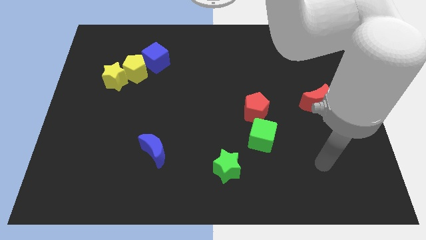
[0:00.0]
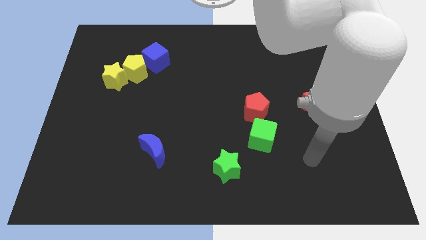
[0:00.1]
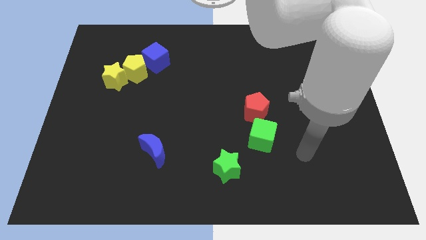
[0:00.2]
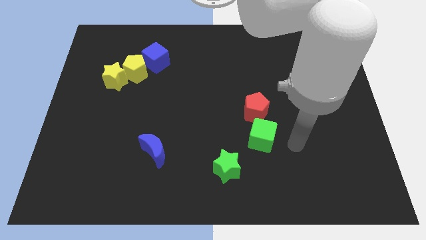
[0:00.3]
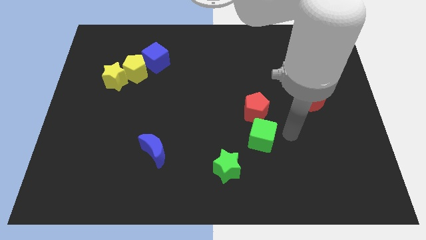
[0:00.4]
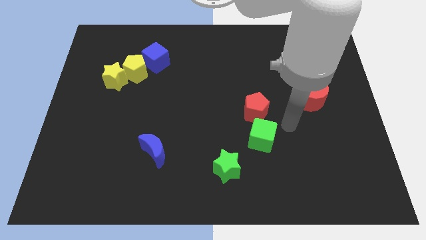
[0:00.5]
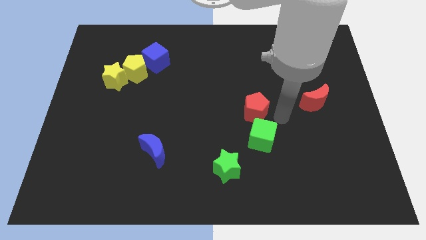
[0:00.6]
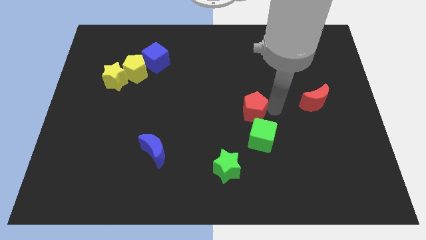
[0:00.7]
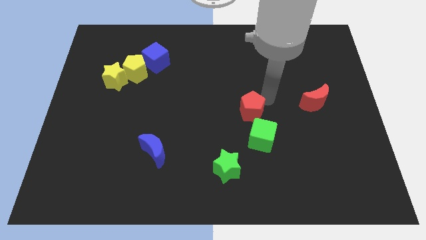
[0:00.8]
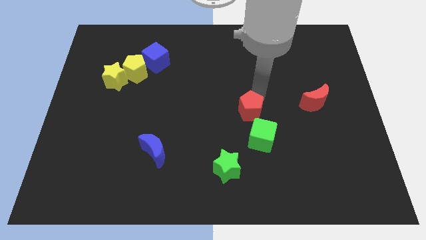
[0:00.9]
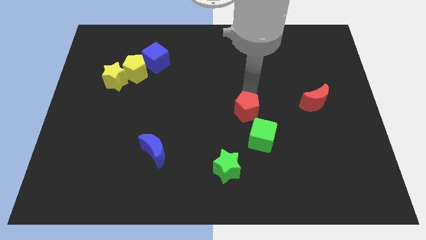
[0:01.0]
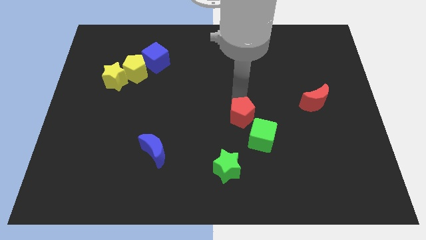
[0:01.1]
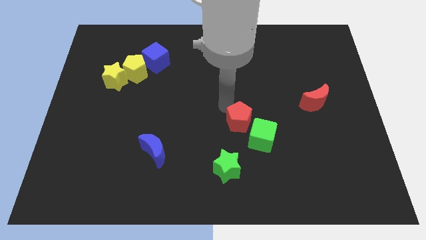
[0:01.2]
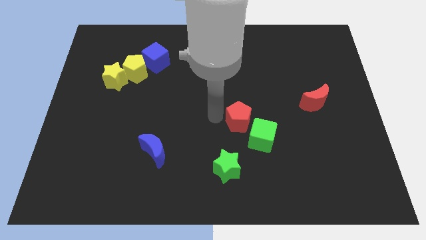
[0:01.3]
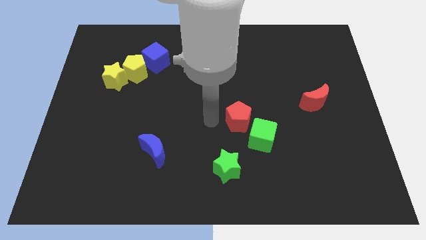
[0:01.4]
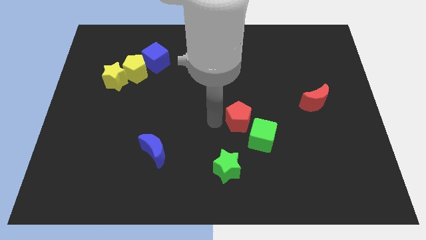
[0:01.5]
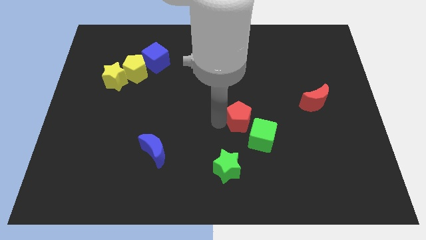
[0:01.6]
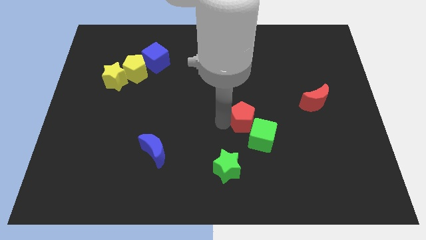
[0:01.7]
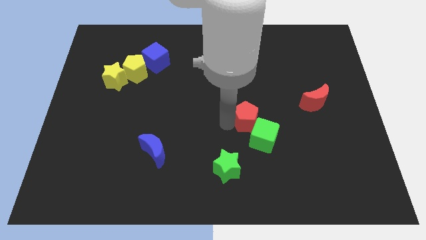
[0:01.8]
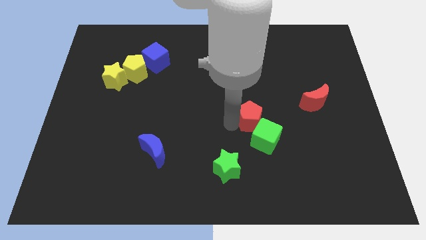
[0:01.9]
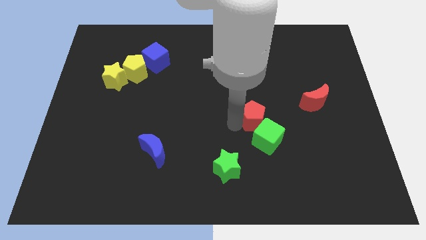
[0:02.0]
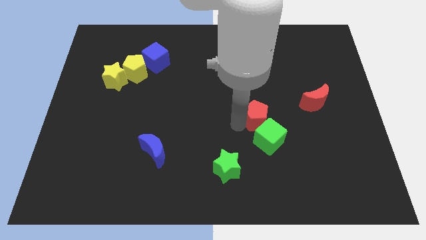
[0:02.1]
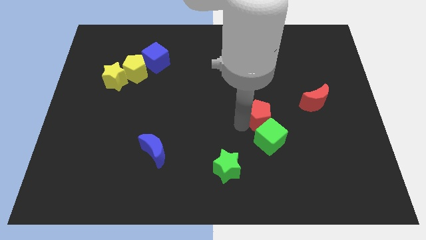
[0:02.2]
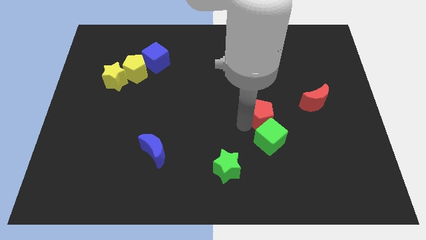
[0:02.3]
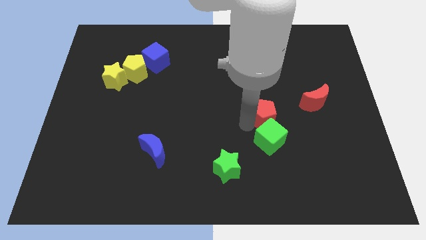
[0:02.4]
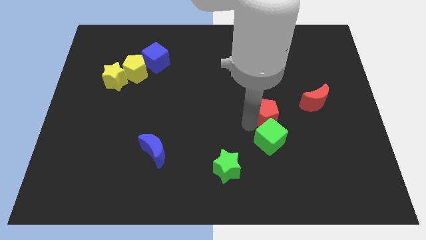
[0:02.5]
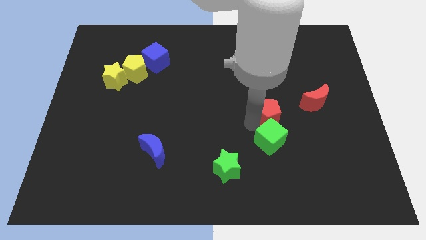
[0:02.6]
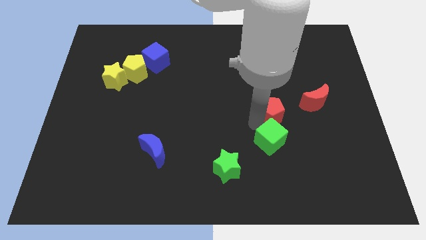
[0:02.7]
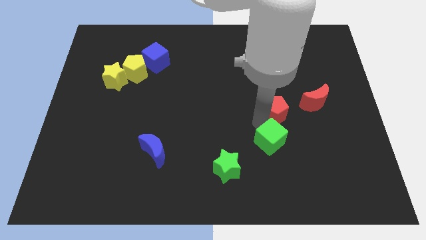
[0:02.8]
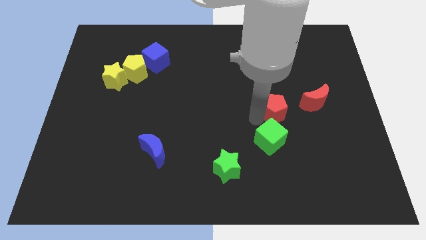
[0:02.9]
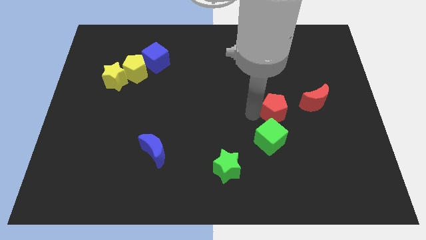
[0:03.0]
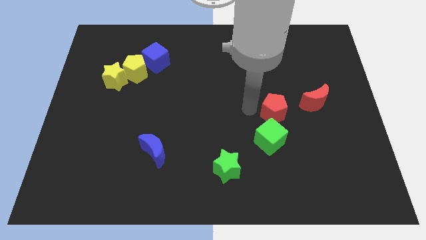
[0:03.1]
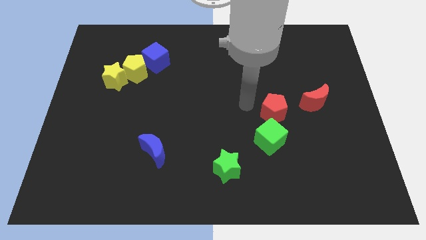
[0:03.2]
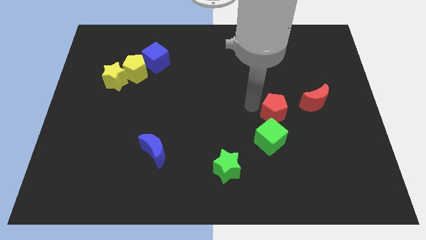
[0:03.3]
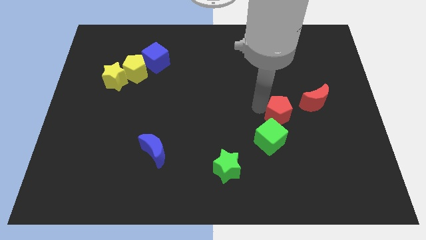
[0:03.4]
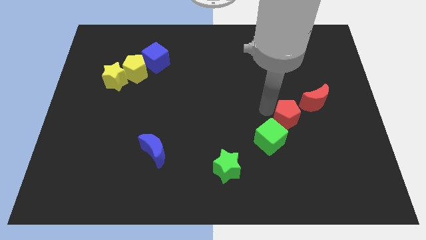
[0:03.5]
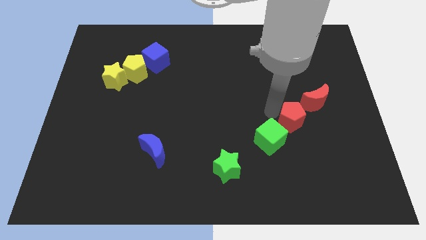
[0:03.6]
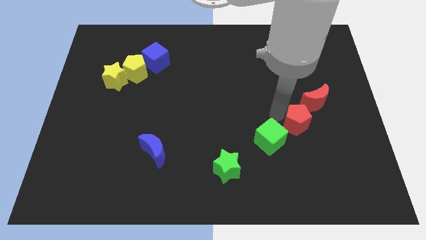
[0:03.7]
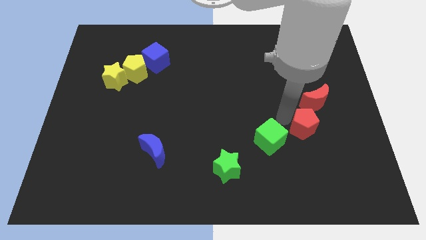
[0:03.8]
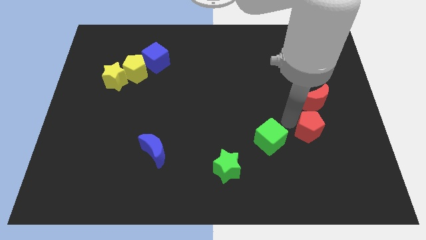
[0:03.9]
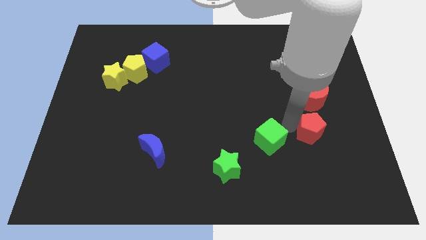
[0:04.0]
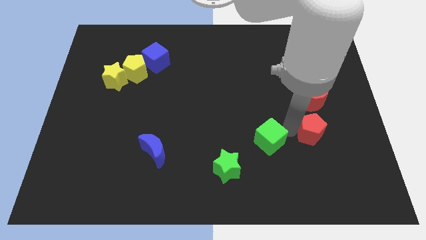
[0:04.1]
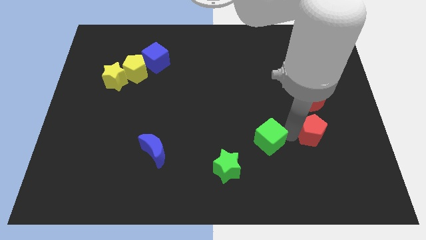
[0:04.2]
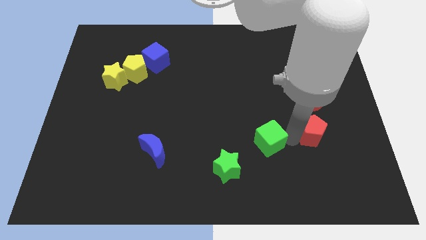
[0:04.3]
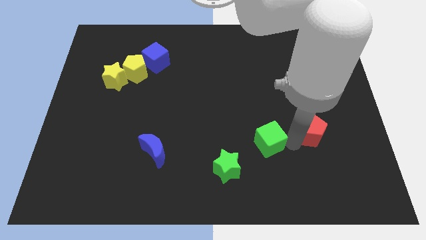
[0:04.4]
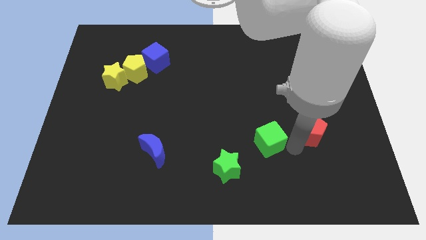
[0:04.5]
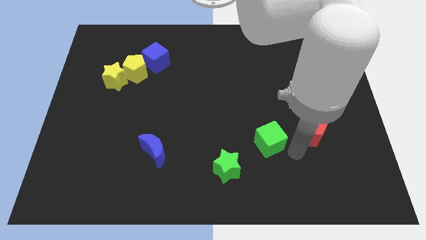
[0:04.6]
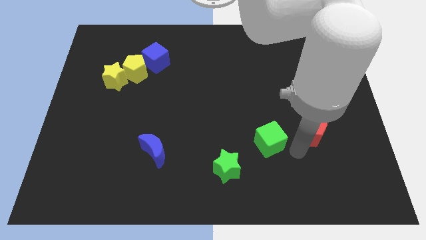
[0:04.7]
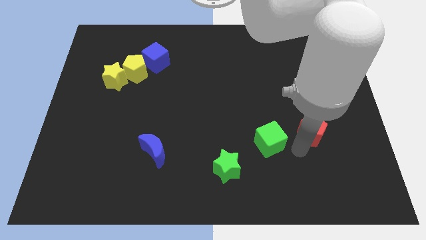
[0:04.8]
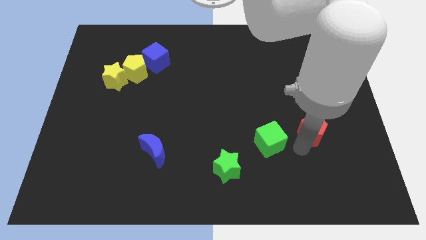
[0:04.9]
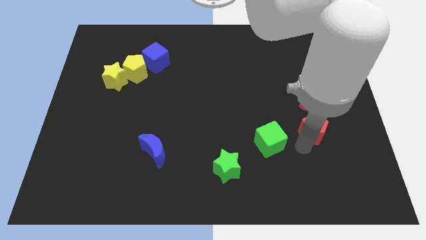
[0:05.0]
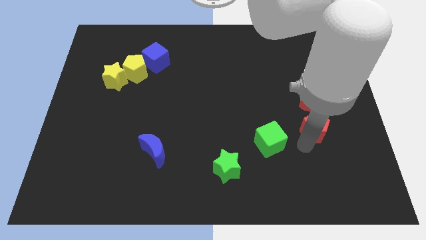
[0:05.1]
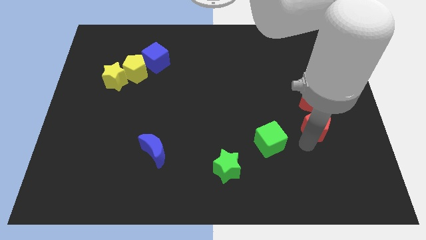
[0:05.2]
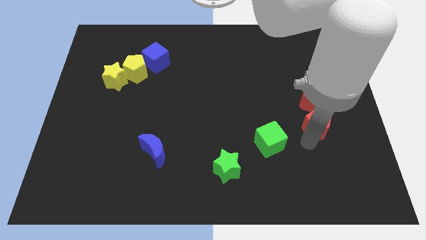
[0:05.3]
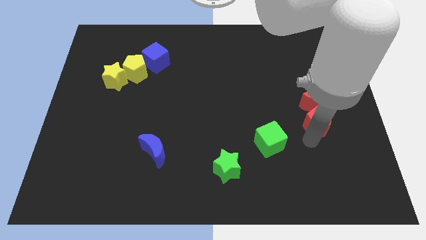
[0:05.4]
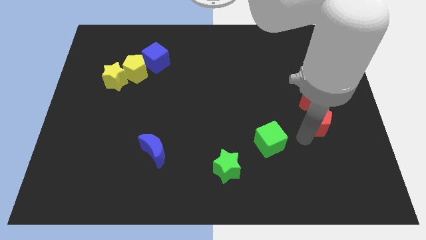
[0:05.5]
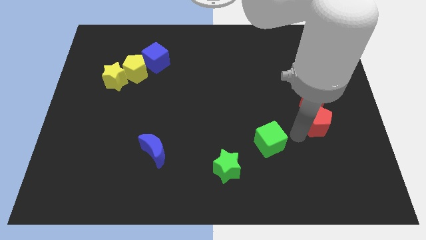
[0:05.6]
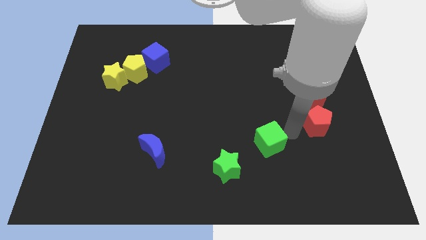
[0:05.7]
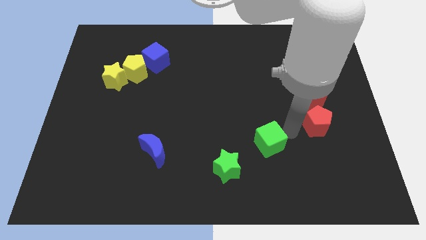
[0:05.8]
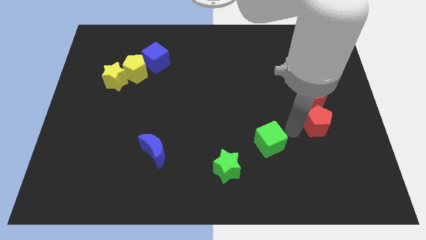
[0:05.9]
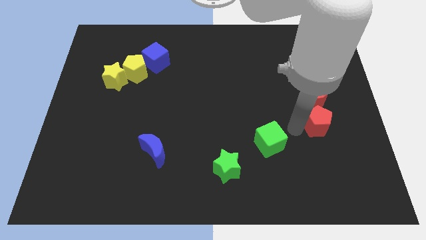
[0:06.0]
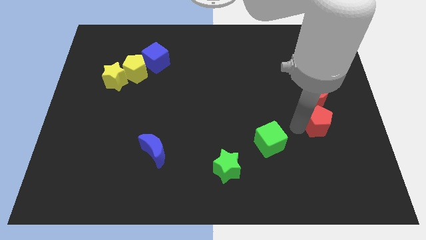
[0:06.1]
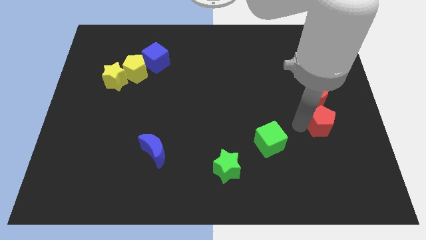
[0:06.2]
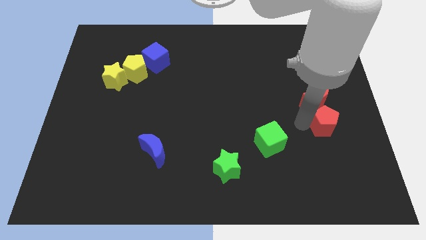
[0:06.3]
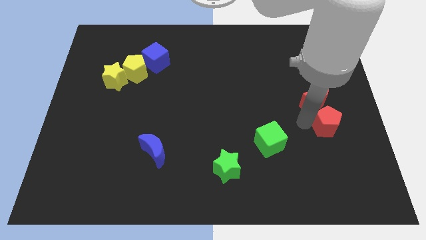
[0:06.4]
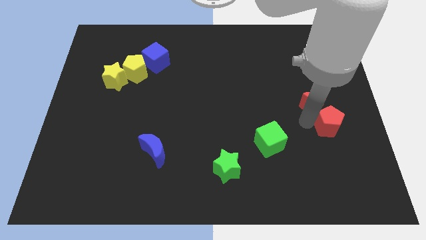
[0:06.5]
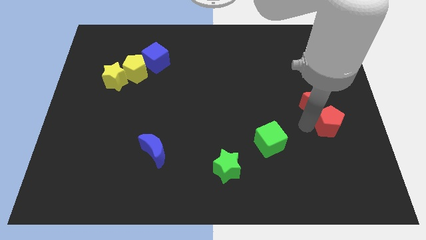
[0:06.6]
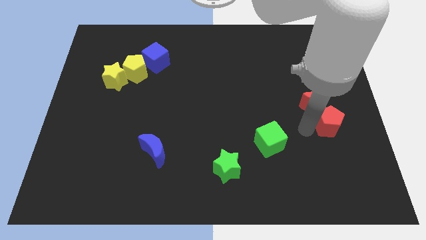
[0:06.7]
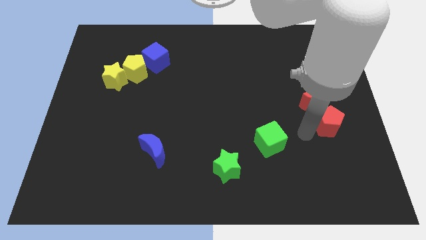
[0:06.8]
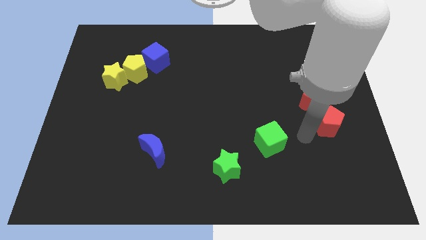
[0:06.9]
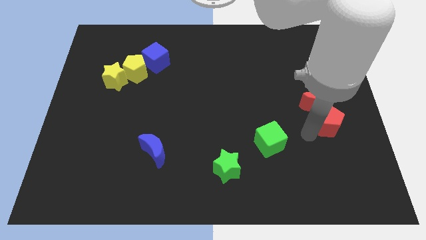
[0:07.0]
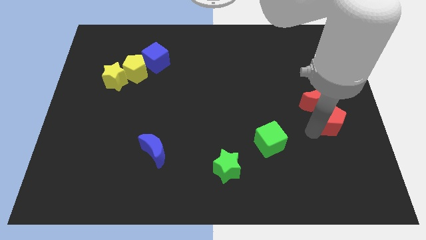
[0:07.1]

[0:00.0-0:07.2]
move the red pentagon to the center right

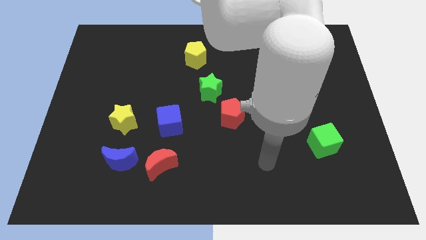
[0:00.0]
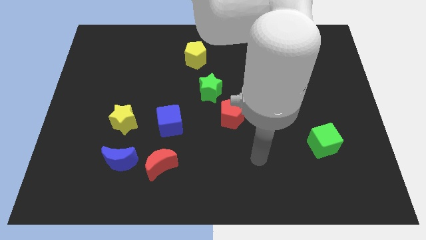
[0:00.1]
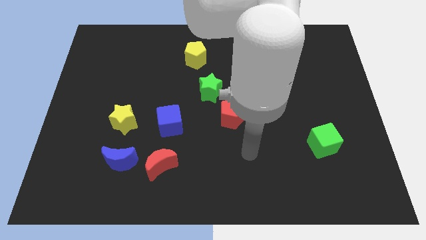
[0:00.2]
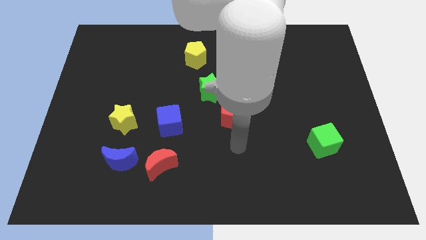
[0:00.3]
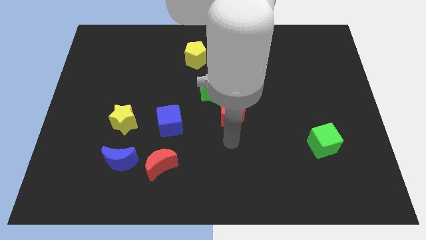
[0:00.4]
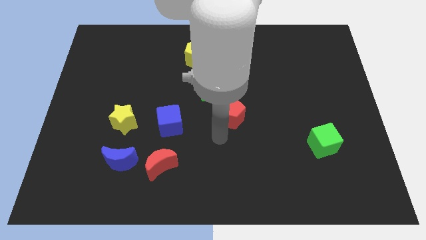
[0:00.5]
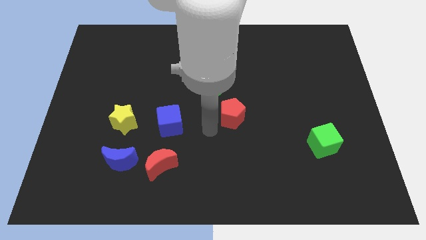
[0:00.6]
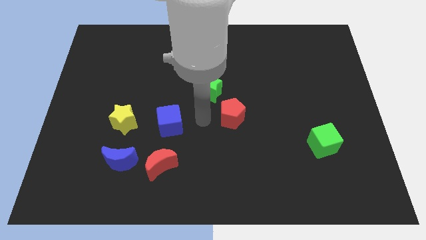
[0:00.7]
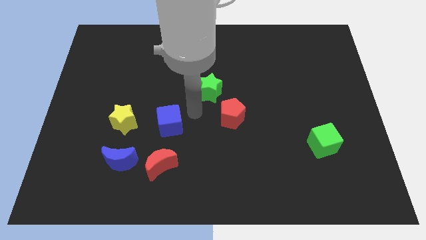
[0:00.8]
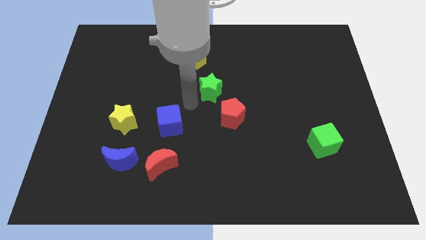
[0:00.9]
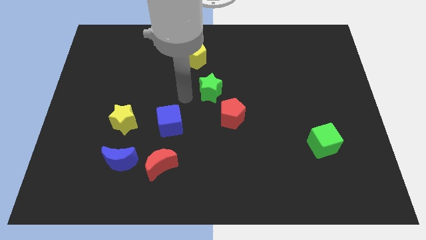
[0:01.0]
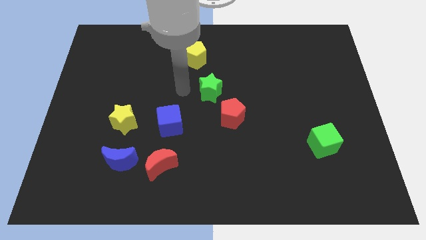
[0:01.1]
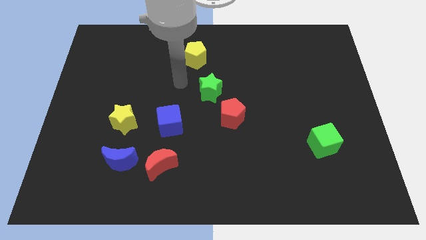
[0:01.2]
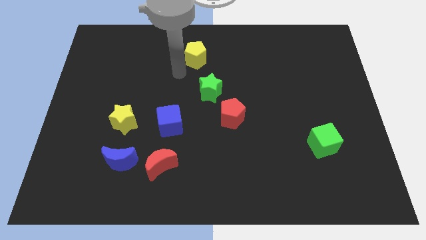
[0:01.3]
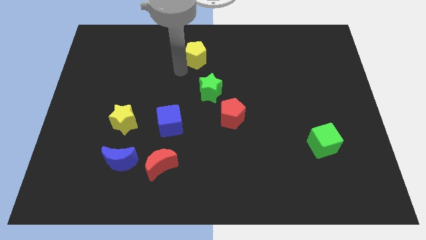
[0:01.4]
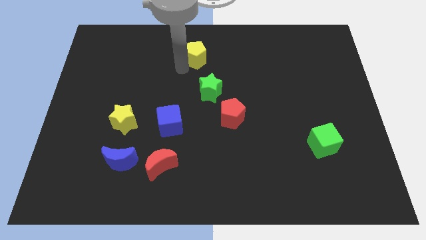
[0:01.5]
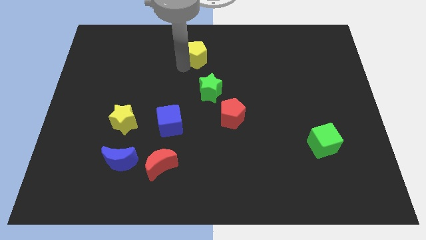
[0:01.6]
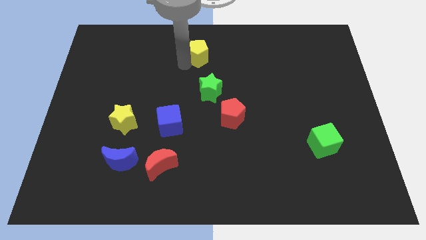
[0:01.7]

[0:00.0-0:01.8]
move the yellow pentagon to the top
